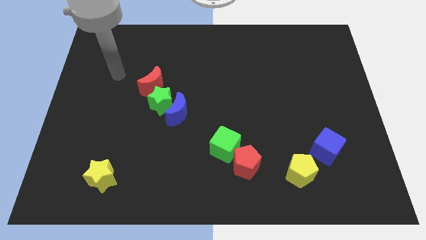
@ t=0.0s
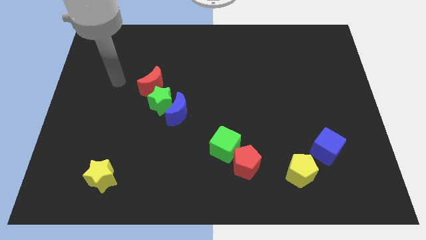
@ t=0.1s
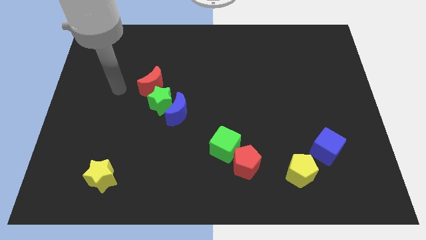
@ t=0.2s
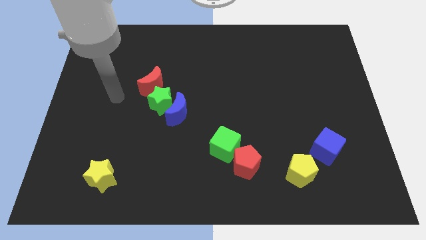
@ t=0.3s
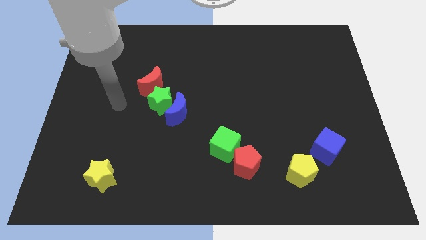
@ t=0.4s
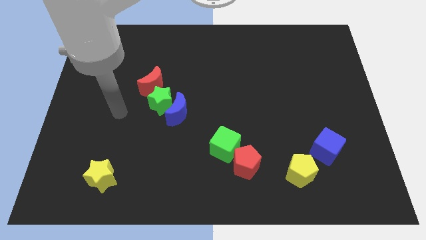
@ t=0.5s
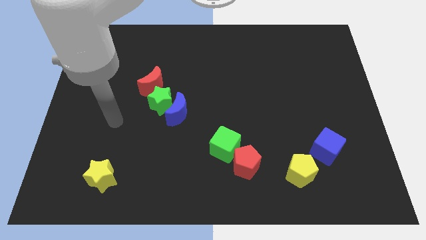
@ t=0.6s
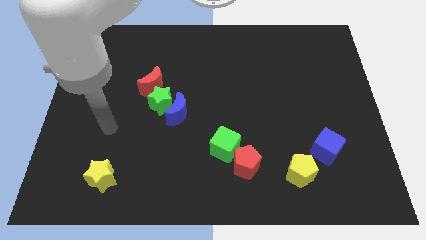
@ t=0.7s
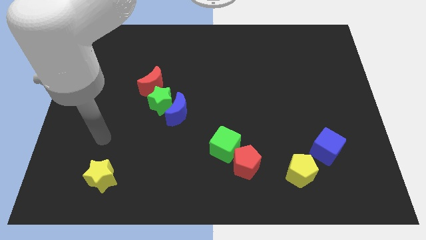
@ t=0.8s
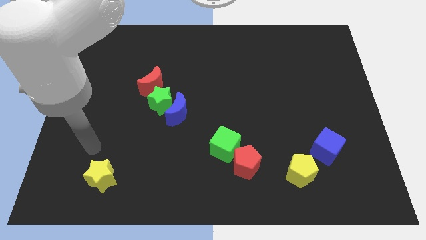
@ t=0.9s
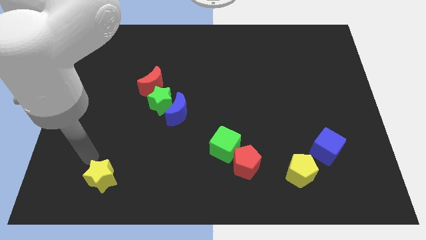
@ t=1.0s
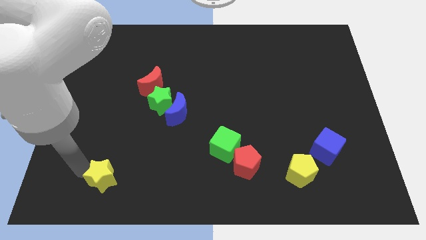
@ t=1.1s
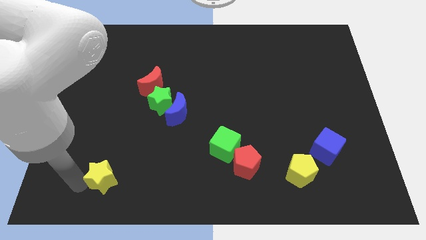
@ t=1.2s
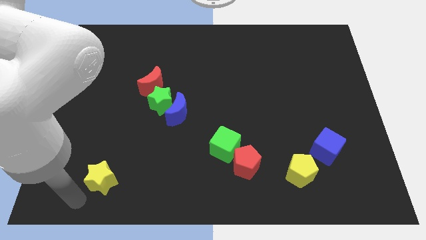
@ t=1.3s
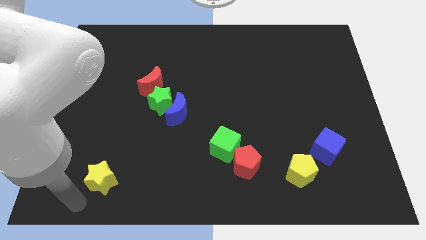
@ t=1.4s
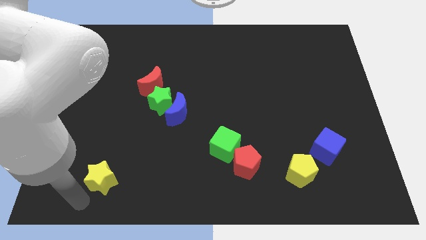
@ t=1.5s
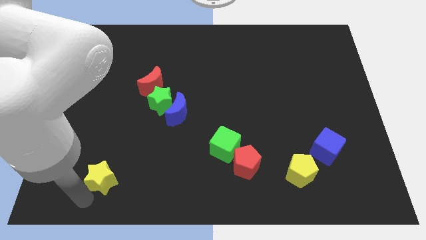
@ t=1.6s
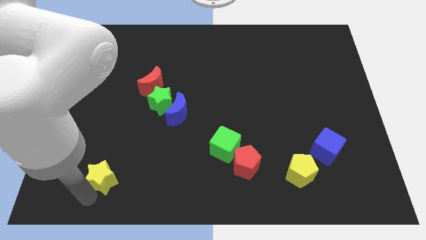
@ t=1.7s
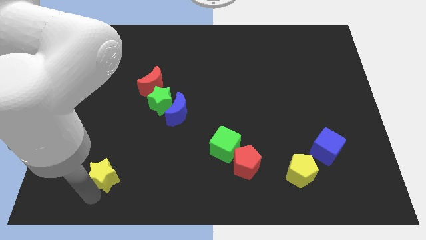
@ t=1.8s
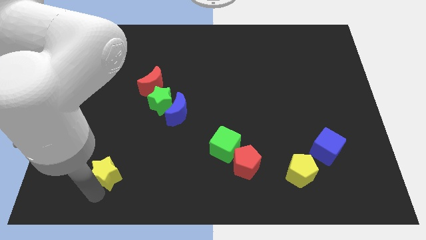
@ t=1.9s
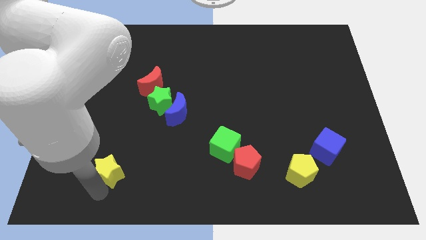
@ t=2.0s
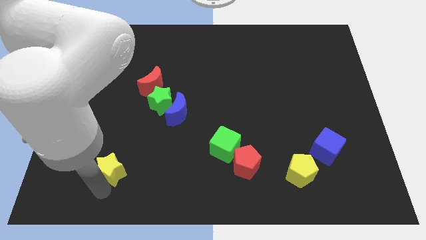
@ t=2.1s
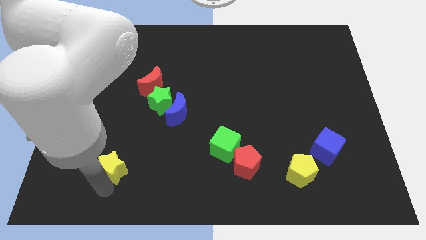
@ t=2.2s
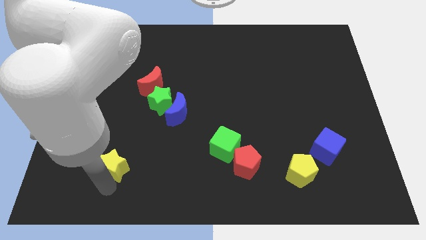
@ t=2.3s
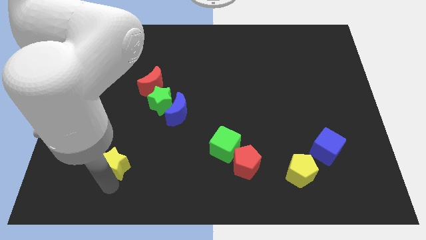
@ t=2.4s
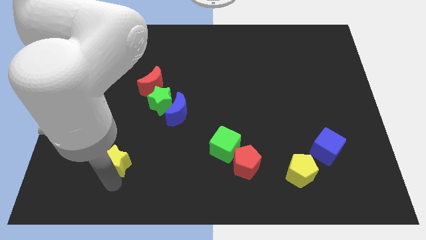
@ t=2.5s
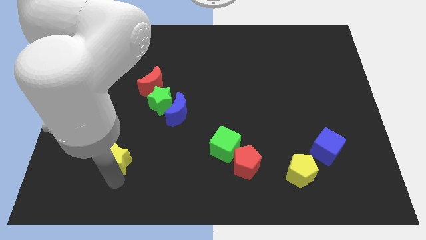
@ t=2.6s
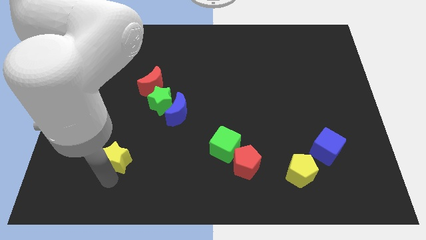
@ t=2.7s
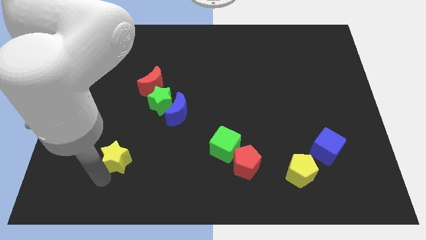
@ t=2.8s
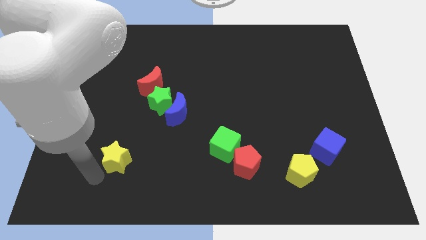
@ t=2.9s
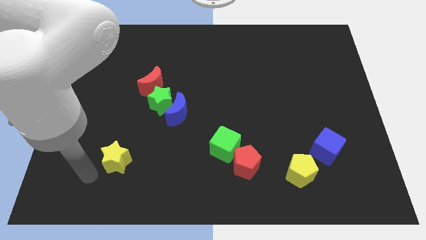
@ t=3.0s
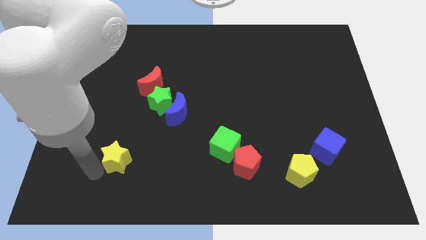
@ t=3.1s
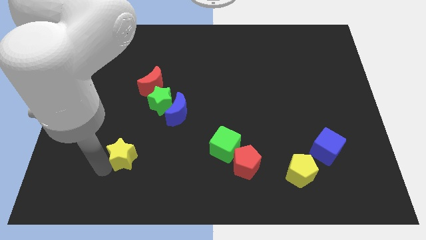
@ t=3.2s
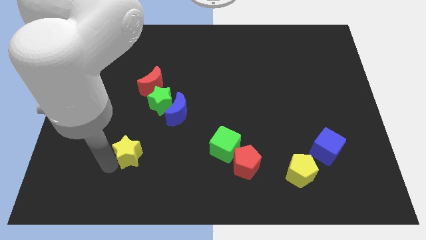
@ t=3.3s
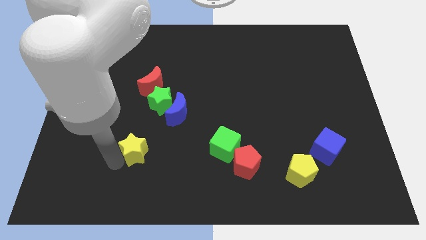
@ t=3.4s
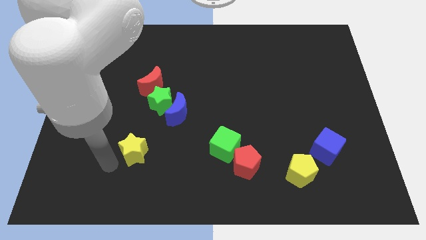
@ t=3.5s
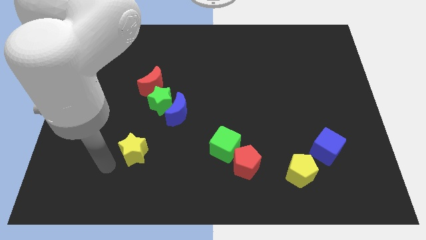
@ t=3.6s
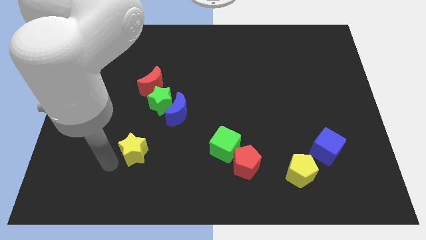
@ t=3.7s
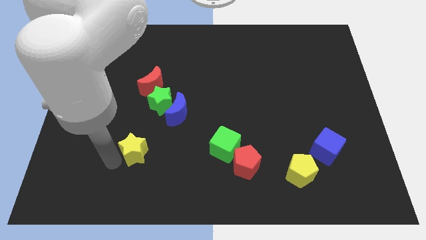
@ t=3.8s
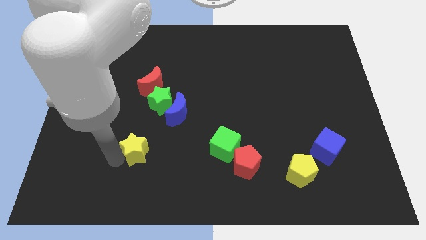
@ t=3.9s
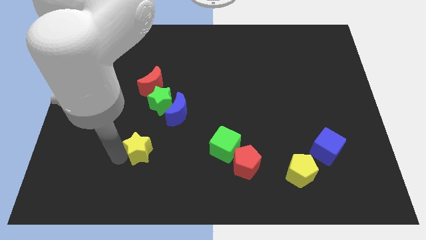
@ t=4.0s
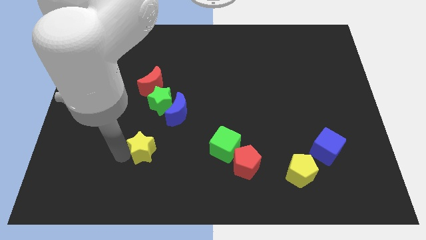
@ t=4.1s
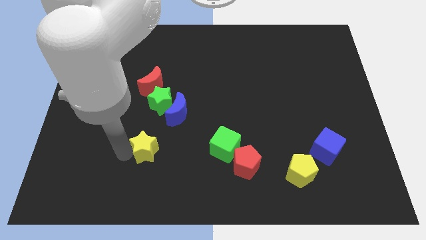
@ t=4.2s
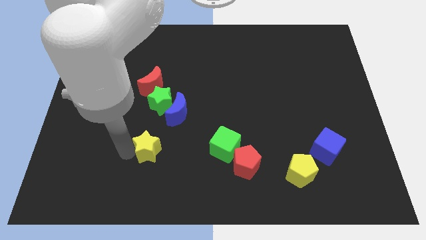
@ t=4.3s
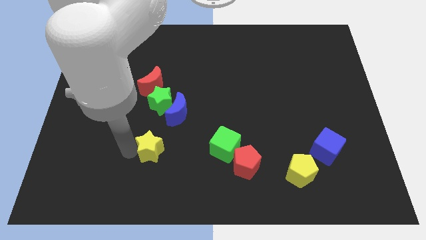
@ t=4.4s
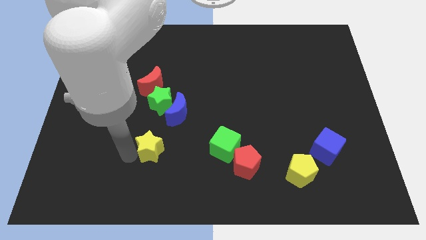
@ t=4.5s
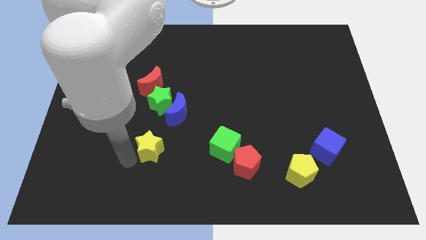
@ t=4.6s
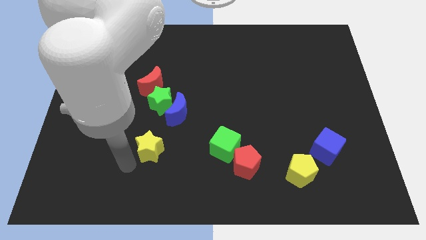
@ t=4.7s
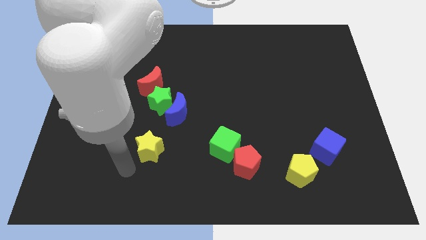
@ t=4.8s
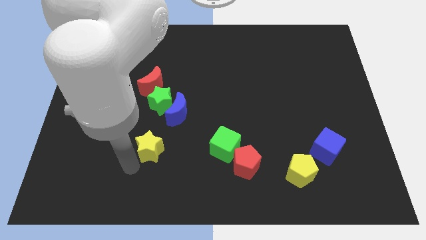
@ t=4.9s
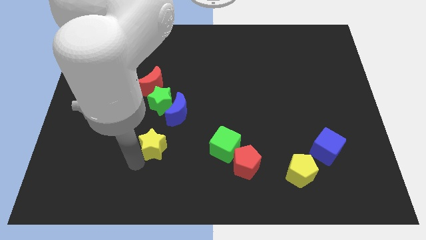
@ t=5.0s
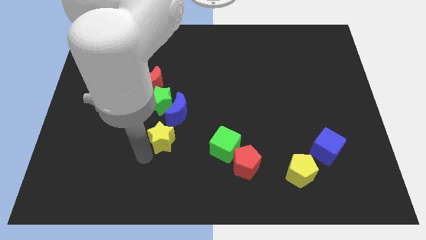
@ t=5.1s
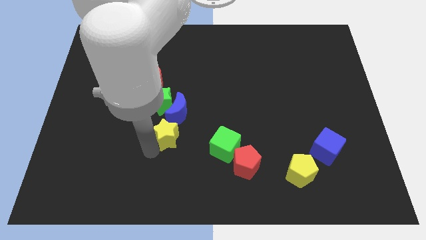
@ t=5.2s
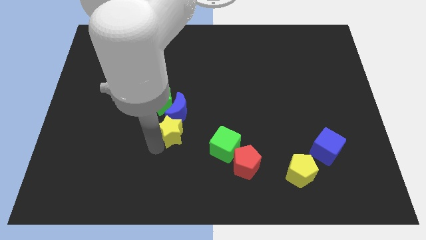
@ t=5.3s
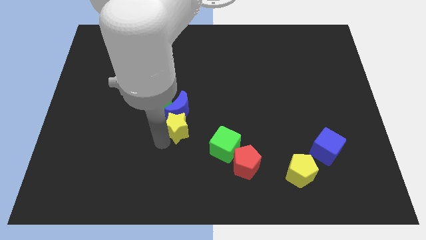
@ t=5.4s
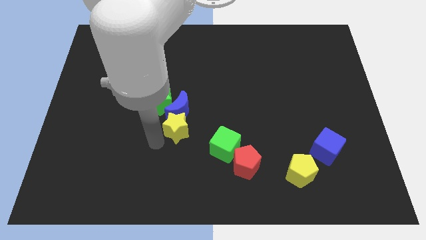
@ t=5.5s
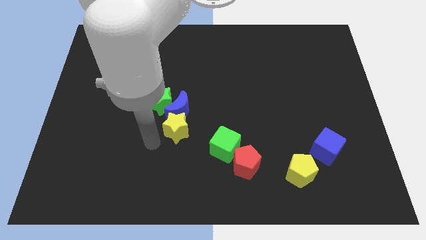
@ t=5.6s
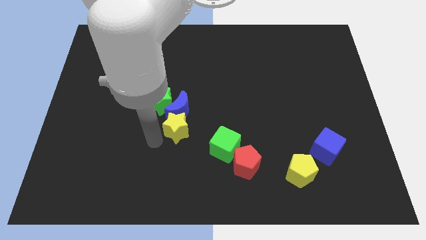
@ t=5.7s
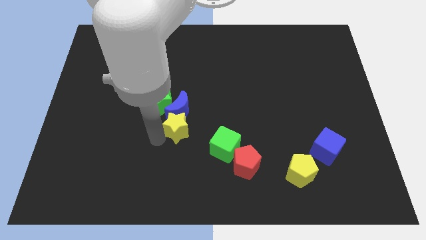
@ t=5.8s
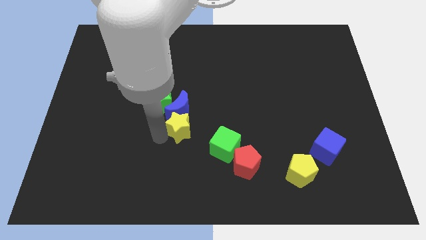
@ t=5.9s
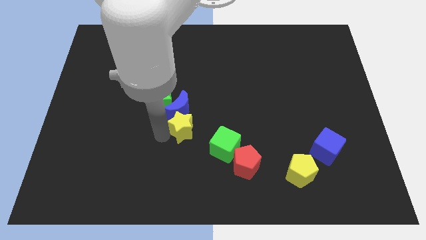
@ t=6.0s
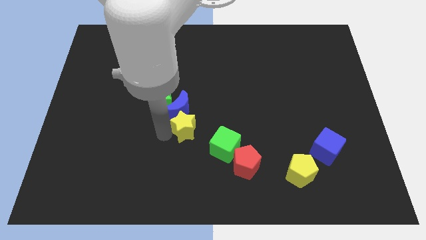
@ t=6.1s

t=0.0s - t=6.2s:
move the yellow star up and then right

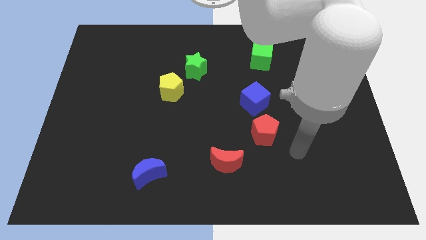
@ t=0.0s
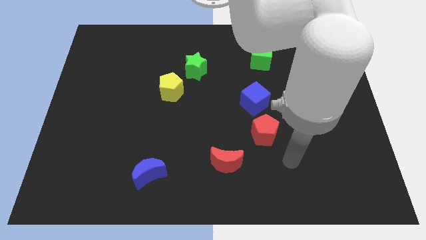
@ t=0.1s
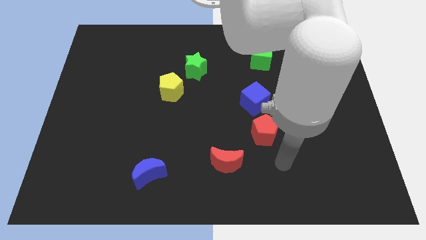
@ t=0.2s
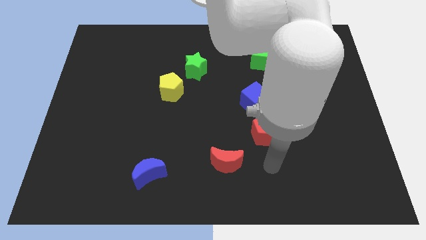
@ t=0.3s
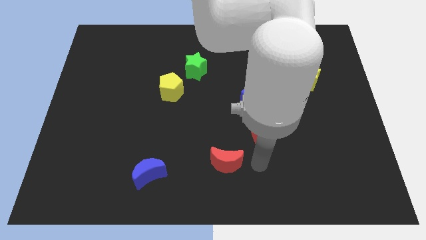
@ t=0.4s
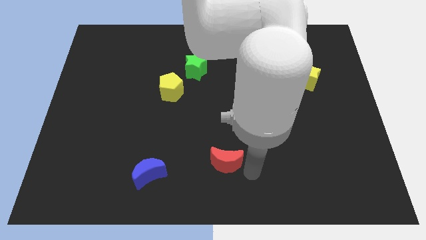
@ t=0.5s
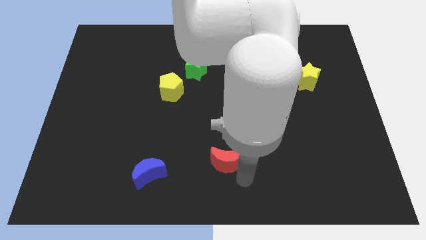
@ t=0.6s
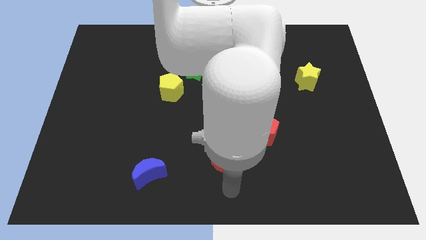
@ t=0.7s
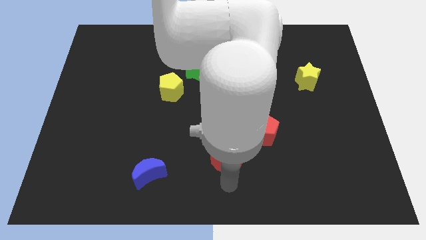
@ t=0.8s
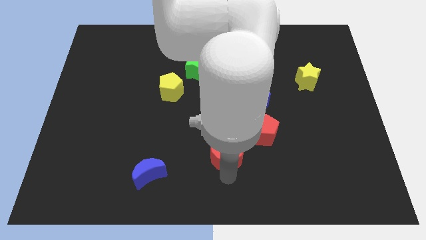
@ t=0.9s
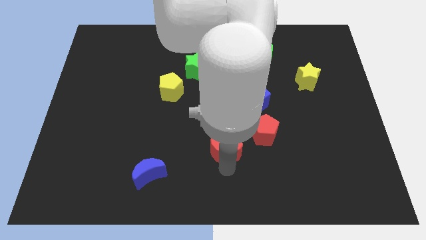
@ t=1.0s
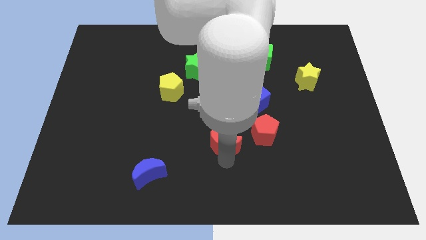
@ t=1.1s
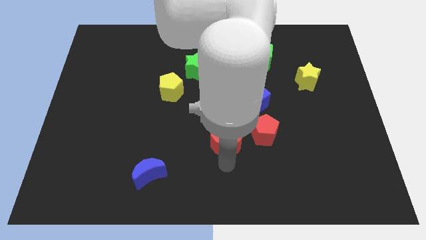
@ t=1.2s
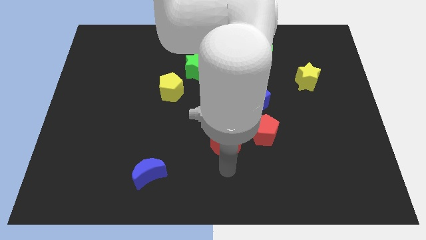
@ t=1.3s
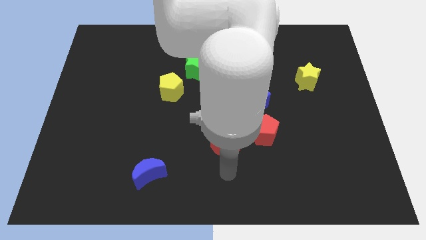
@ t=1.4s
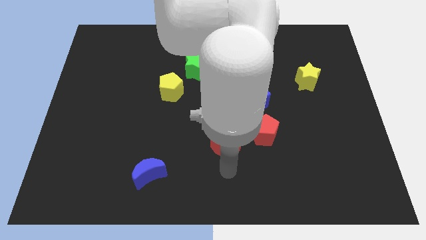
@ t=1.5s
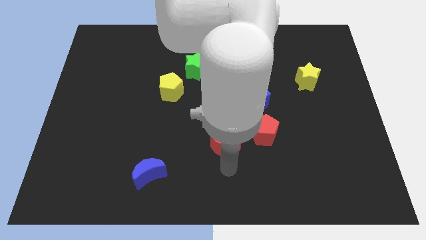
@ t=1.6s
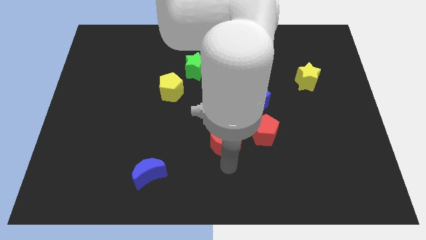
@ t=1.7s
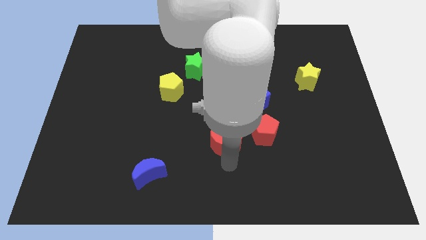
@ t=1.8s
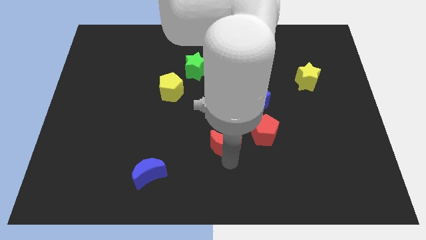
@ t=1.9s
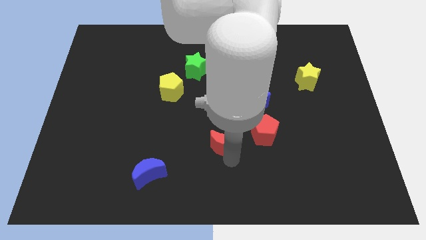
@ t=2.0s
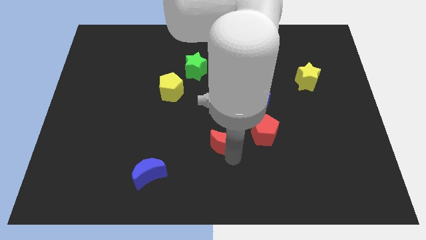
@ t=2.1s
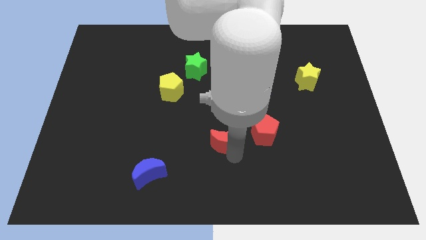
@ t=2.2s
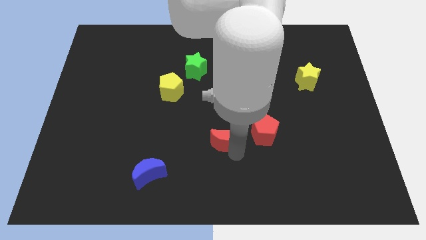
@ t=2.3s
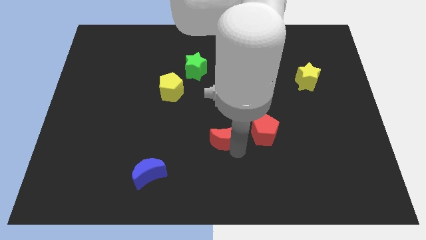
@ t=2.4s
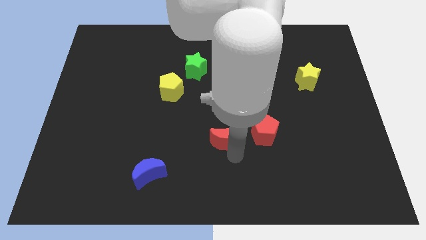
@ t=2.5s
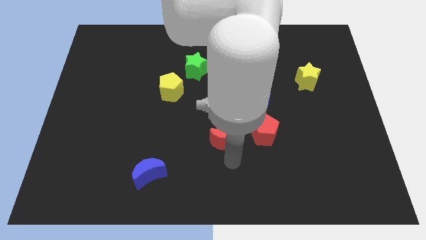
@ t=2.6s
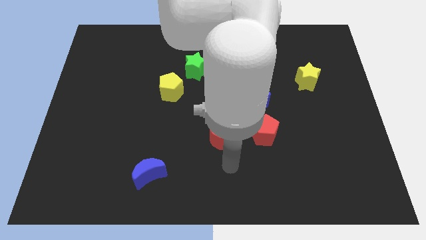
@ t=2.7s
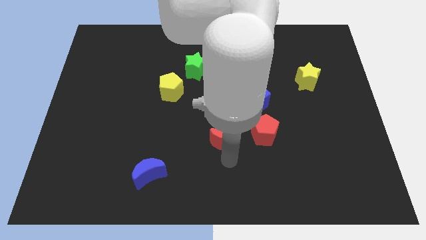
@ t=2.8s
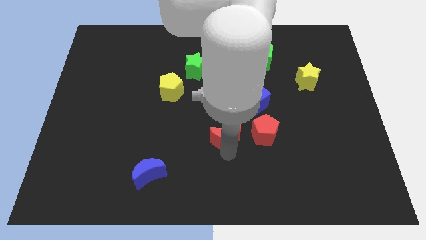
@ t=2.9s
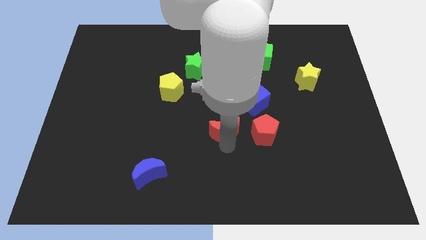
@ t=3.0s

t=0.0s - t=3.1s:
slide the red moon slightly upwards
